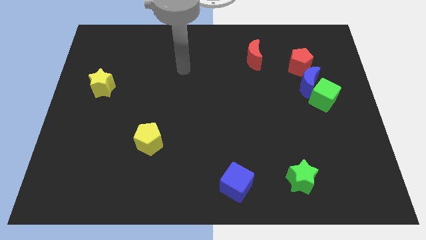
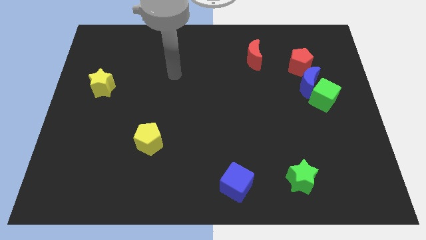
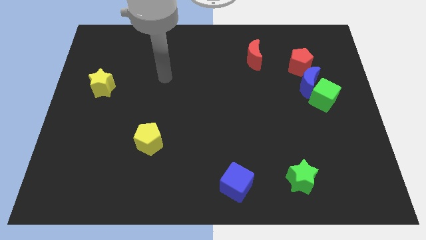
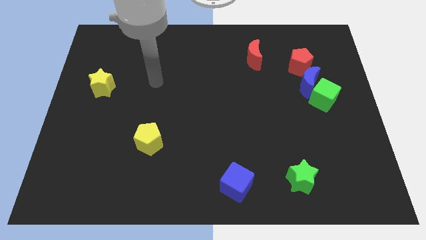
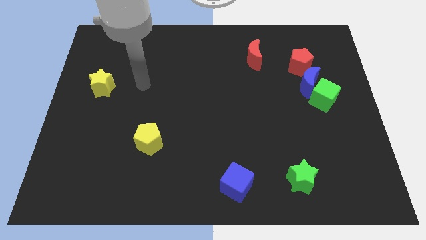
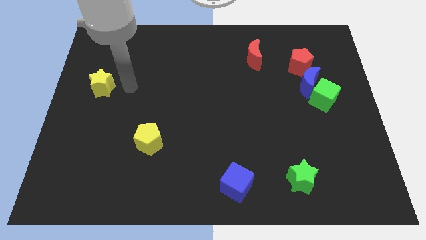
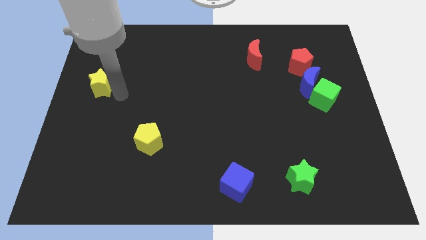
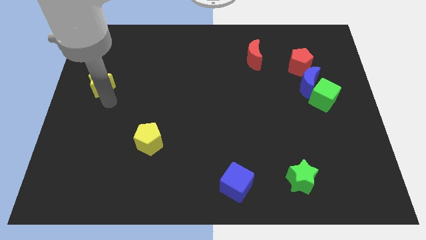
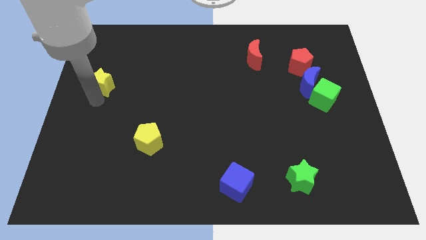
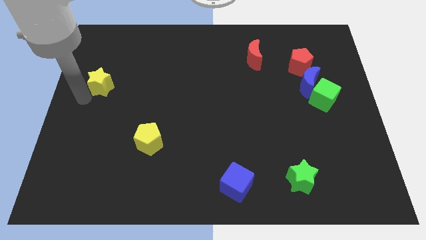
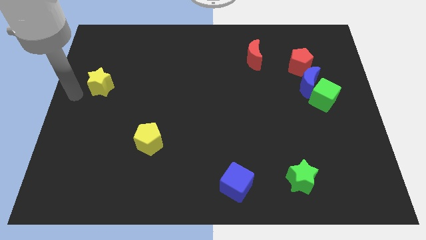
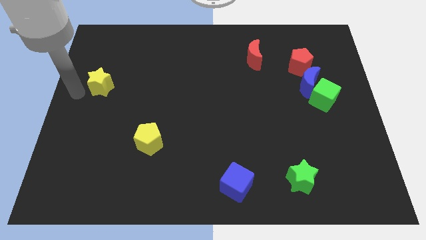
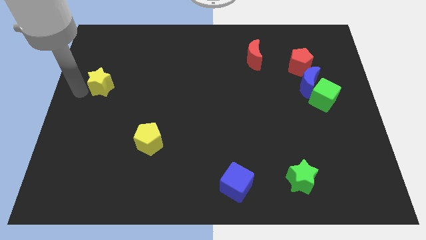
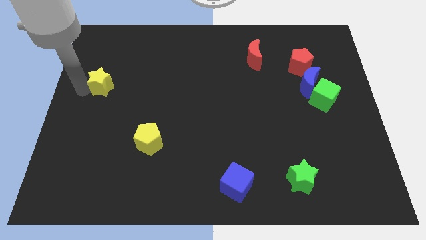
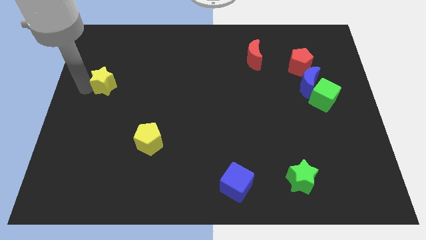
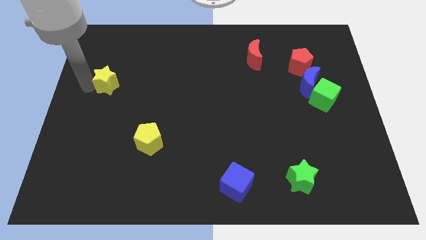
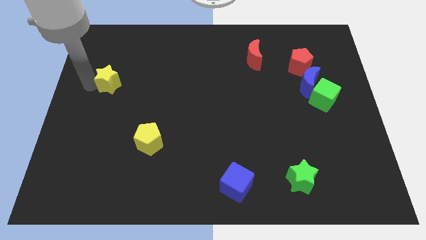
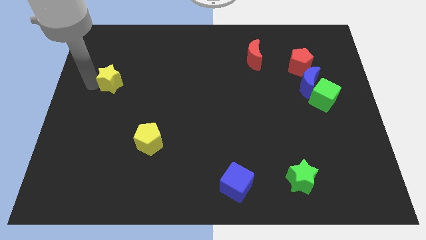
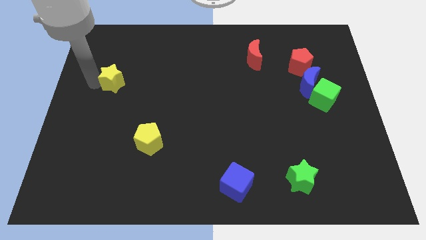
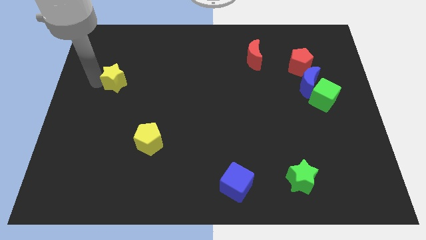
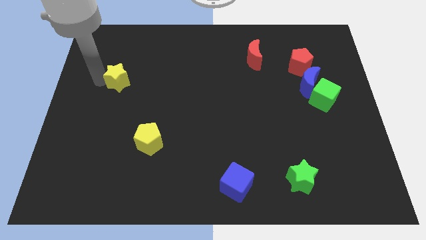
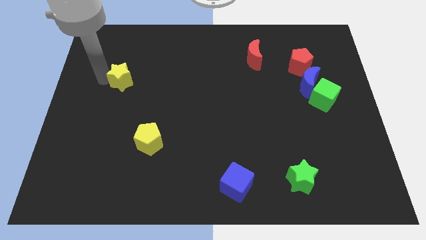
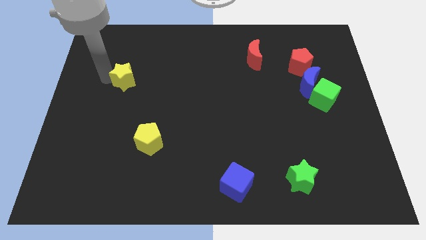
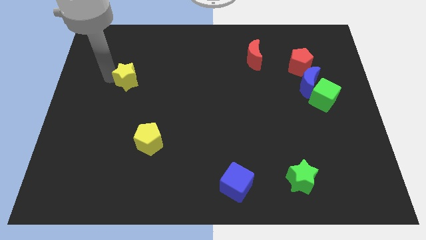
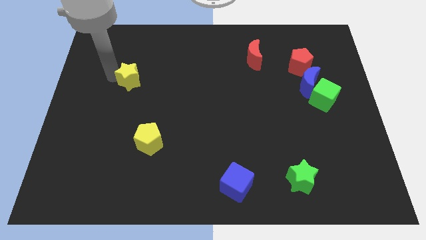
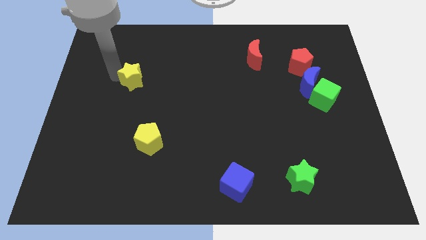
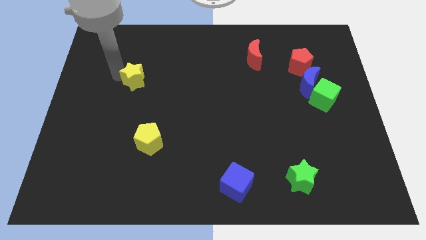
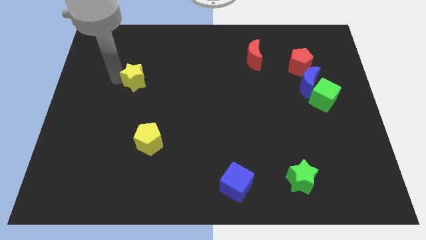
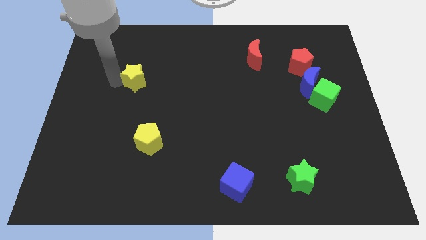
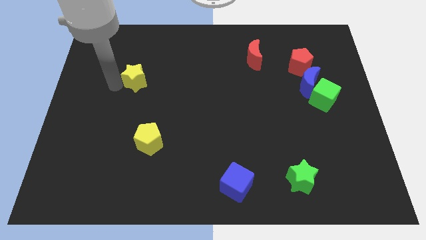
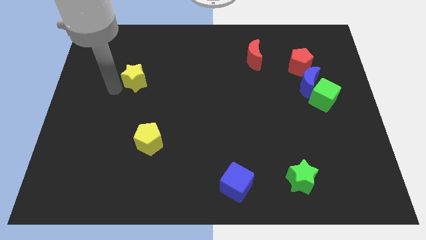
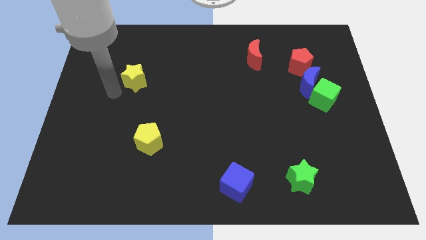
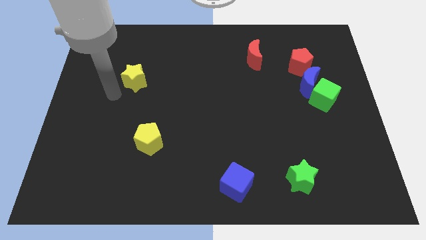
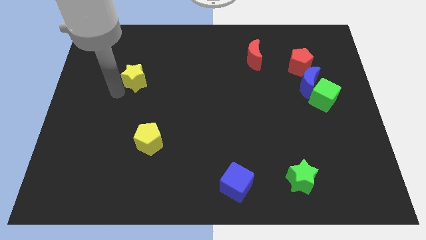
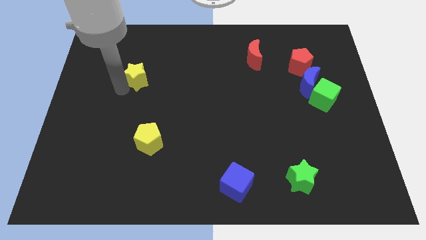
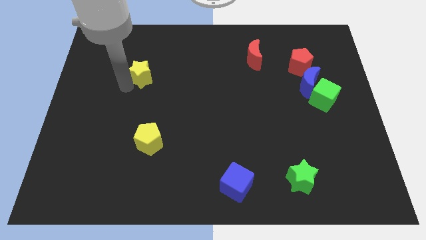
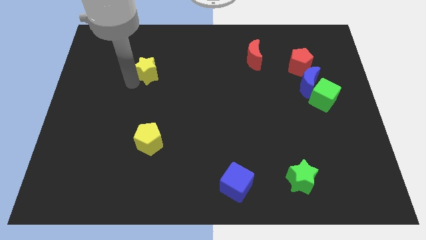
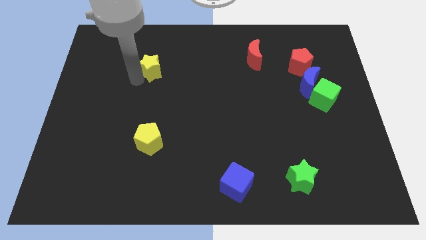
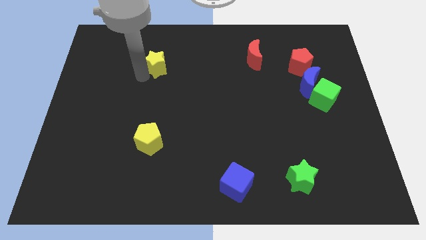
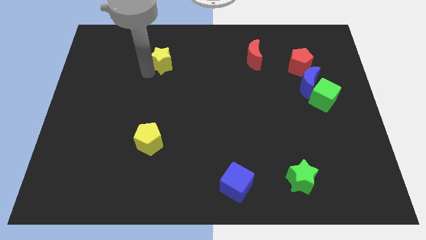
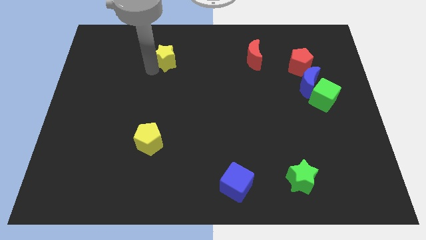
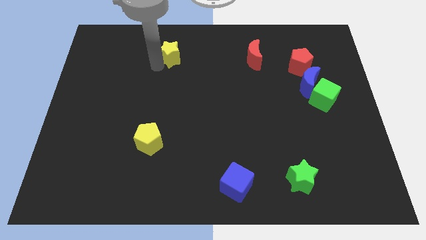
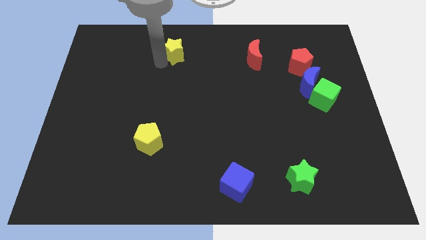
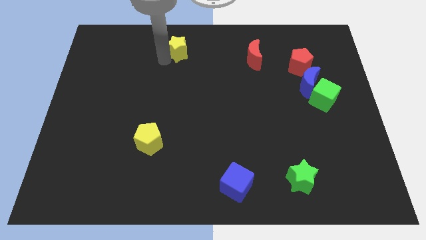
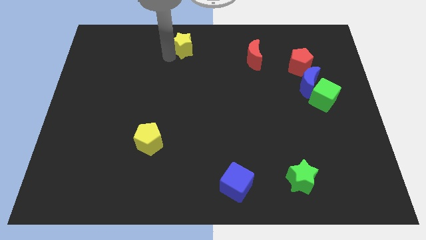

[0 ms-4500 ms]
push the yellow star to the top

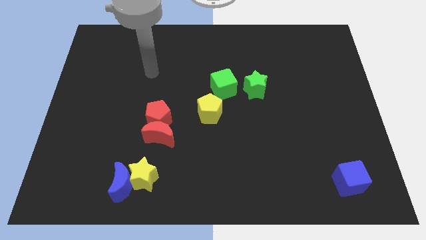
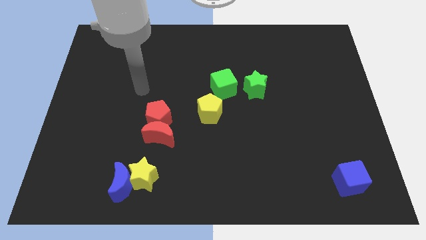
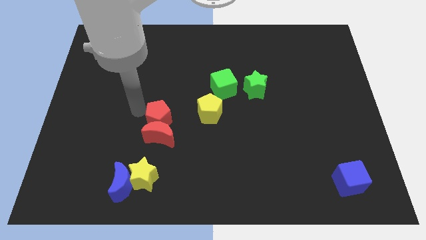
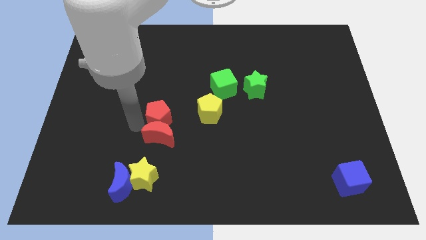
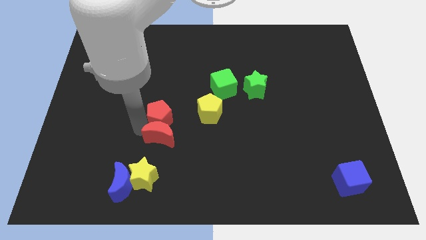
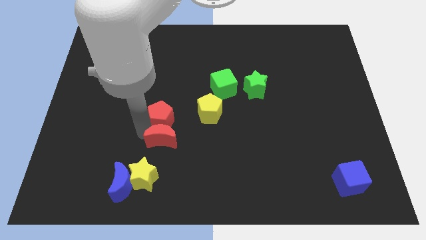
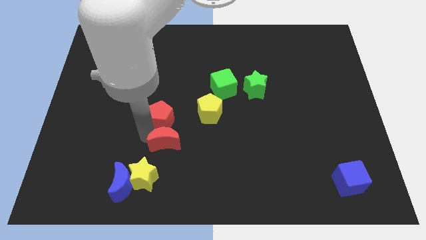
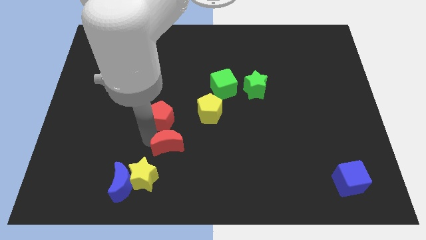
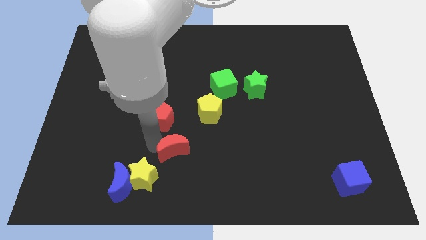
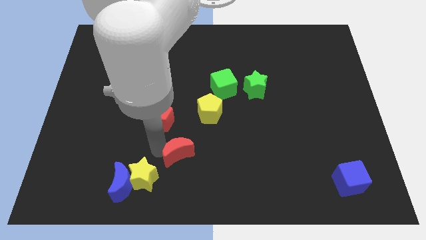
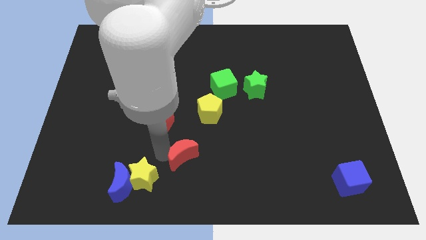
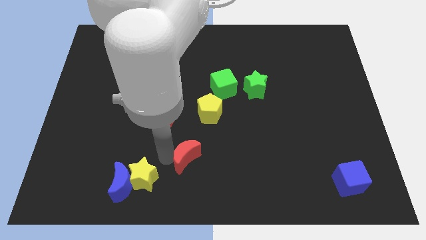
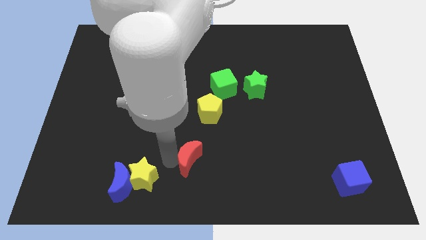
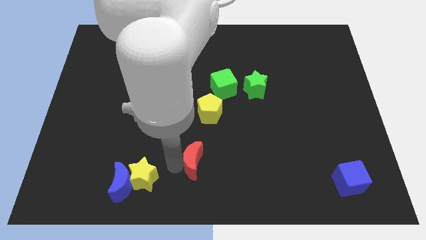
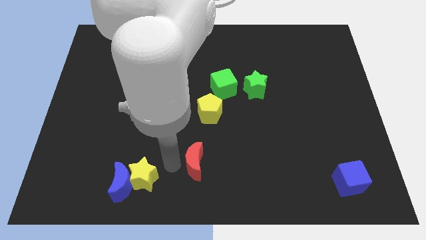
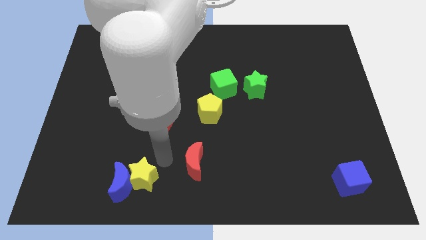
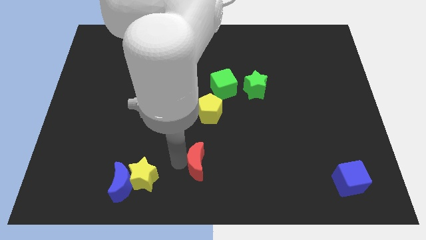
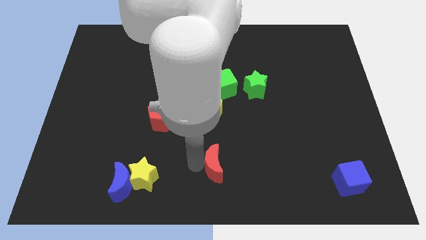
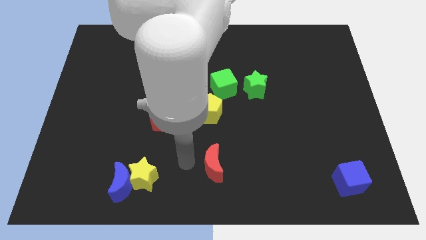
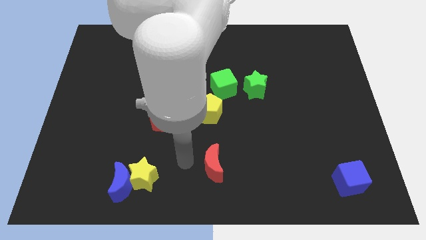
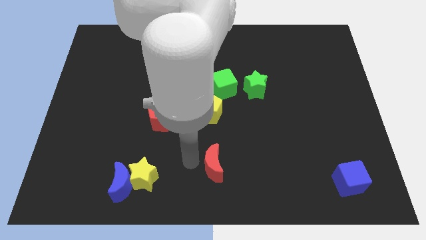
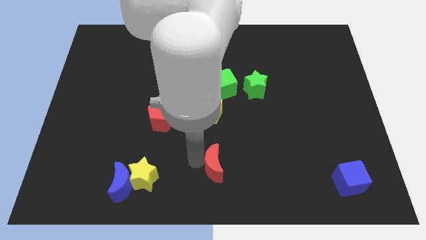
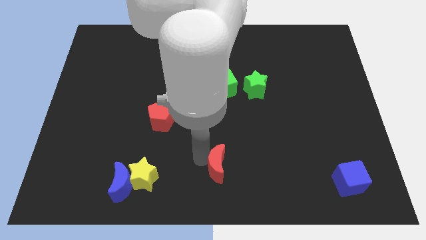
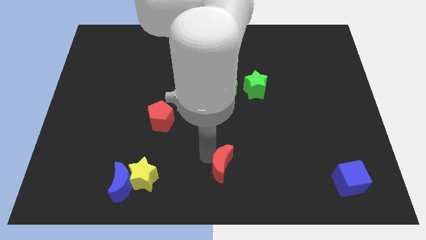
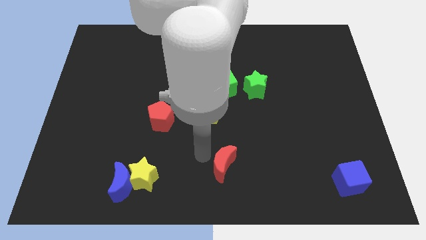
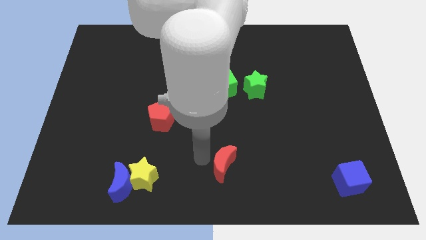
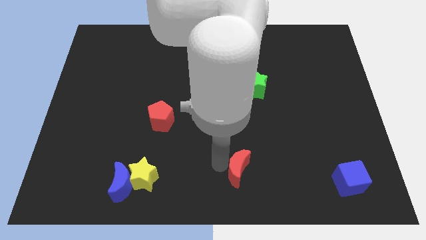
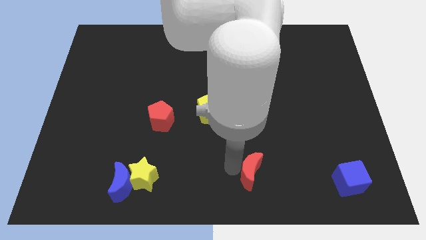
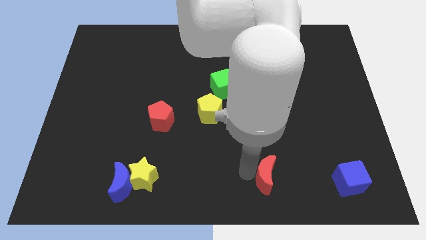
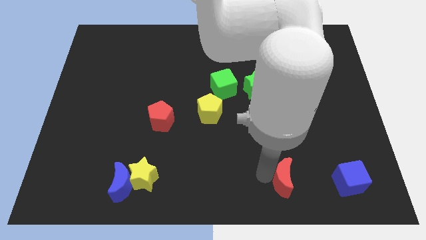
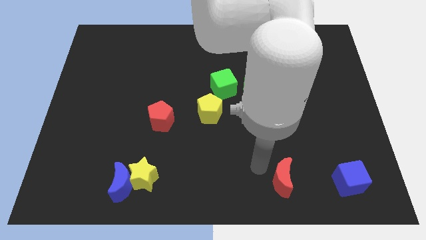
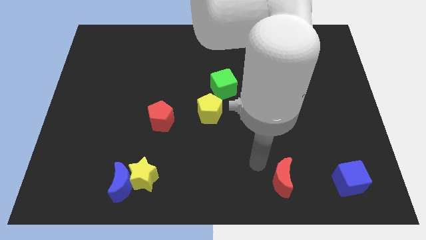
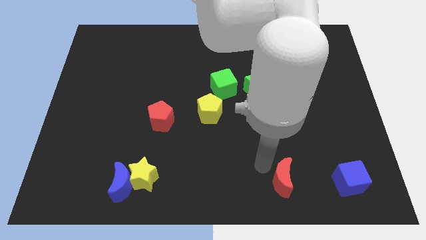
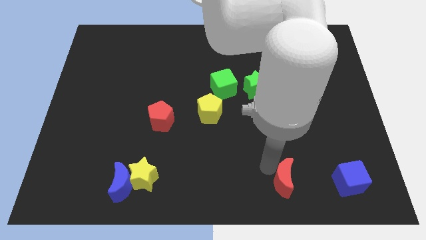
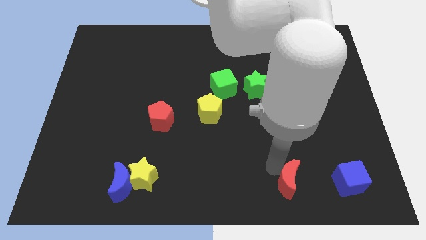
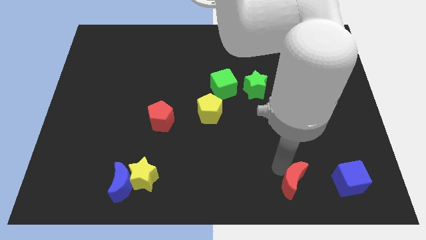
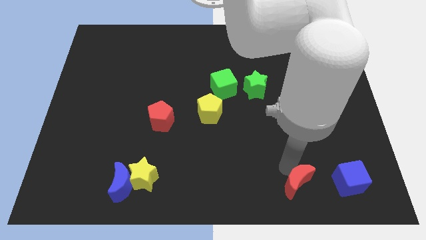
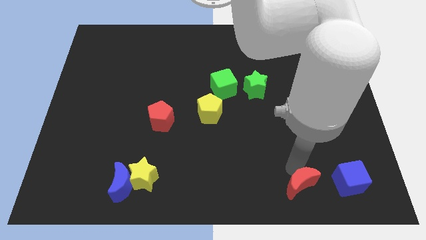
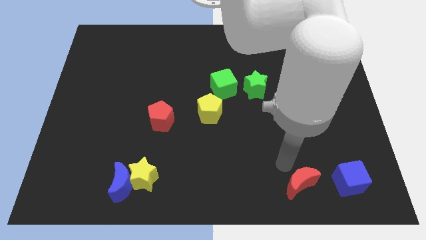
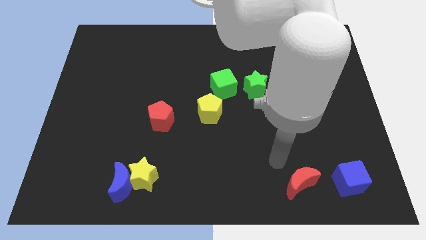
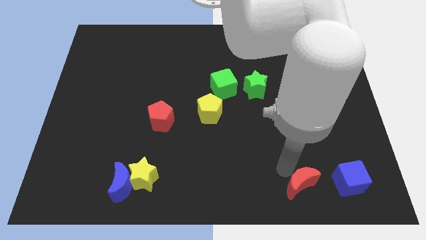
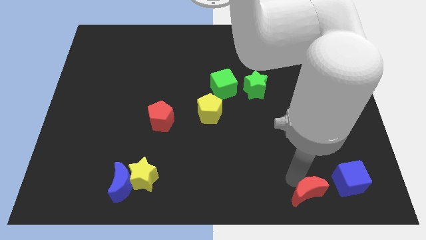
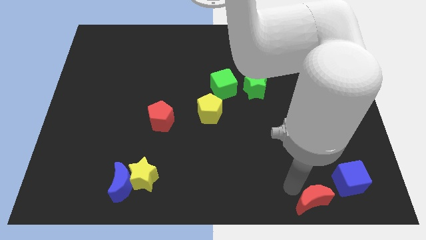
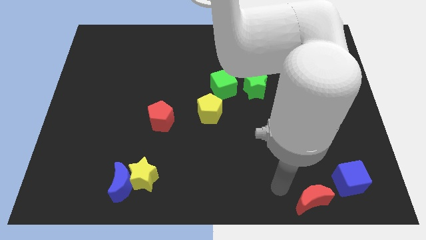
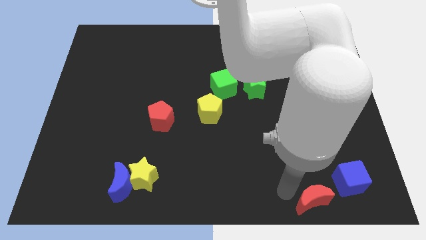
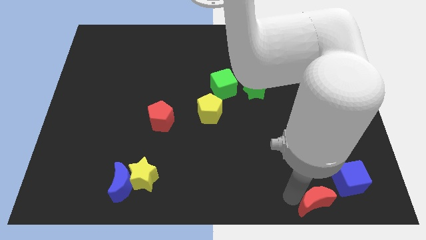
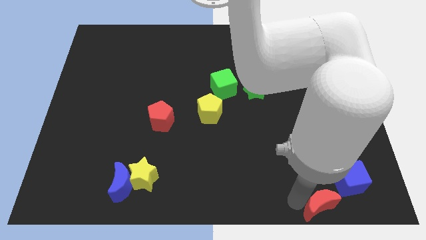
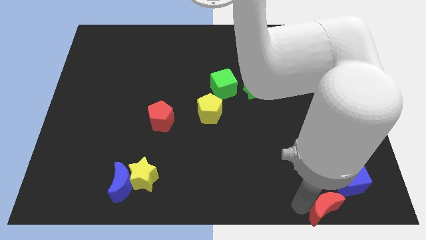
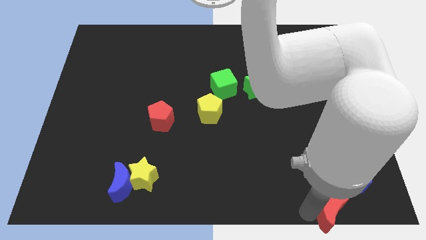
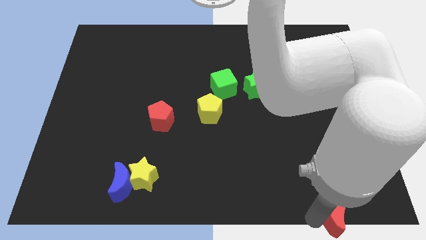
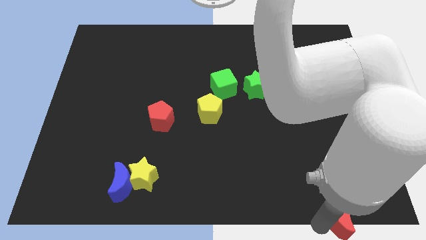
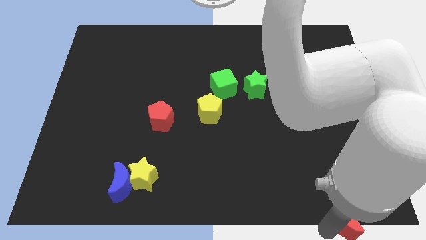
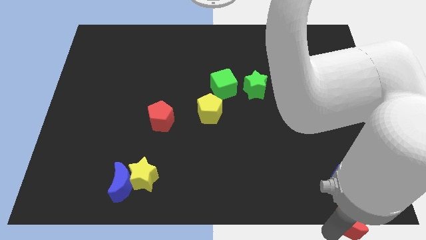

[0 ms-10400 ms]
push the red moon to the bottom right
